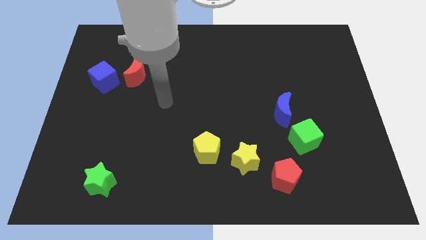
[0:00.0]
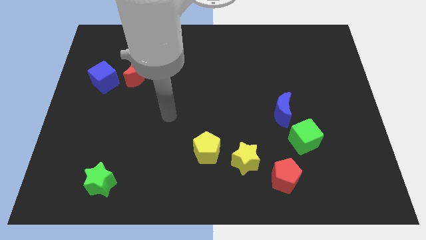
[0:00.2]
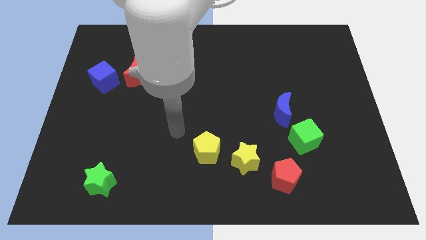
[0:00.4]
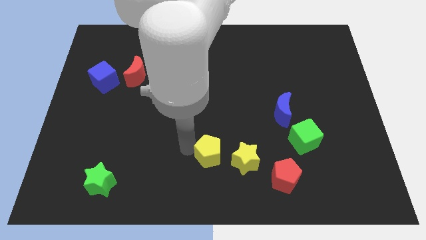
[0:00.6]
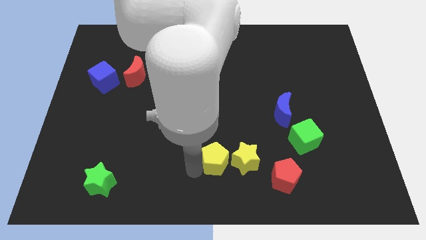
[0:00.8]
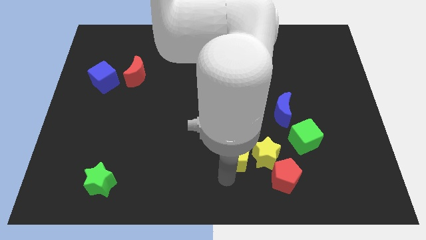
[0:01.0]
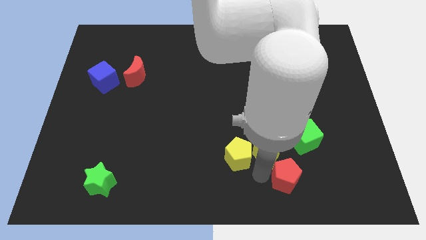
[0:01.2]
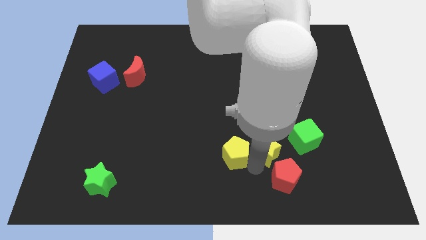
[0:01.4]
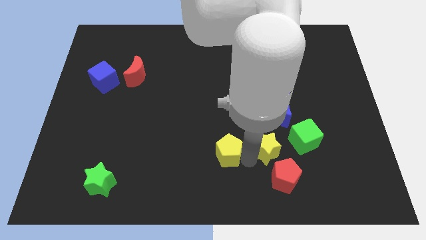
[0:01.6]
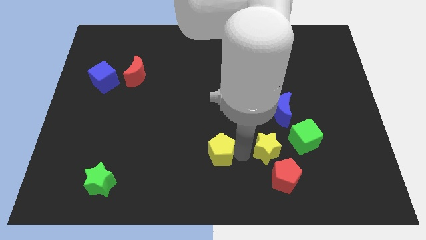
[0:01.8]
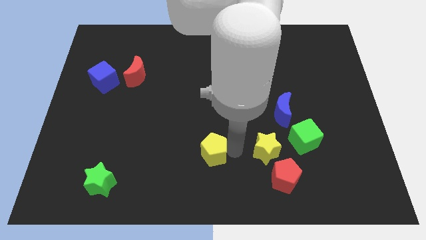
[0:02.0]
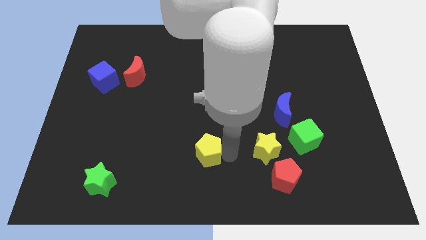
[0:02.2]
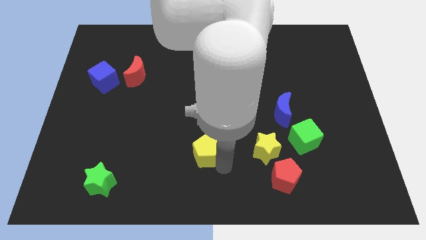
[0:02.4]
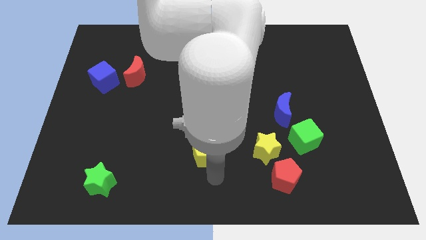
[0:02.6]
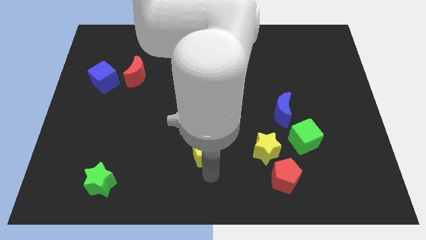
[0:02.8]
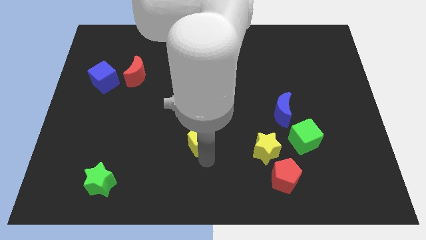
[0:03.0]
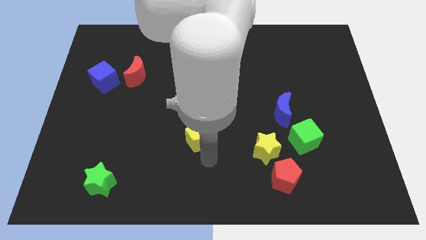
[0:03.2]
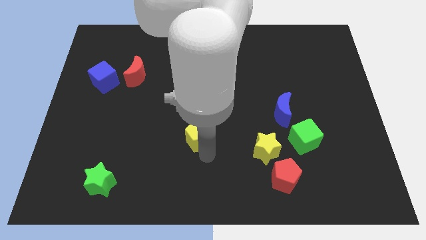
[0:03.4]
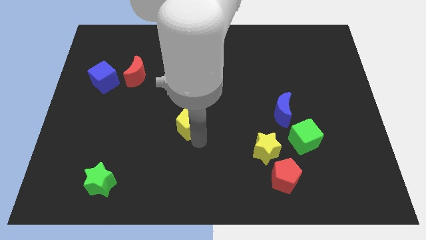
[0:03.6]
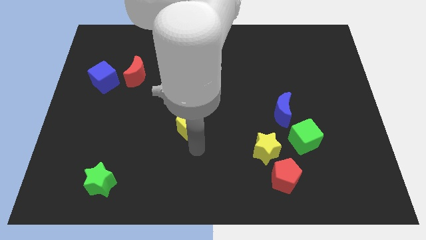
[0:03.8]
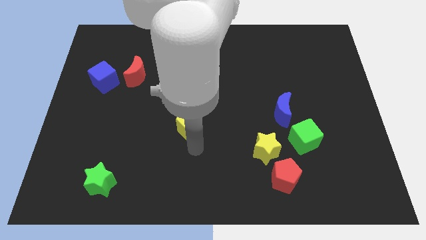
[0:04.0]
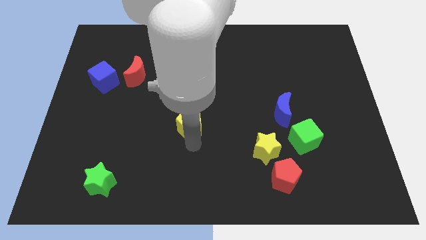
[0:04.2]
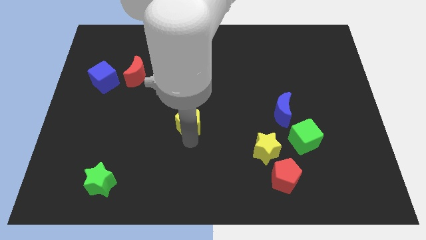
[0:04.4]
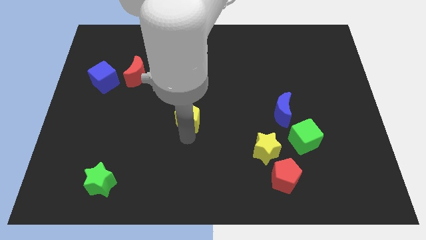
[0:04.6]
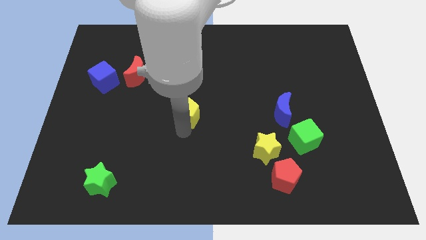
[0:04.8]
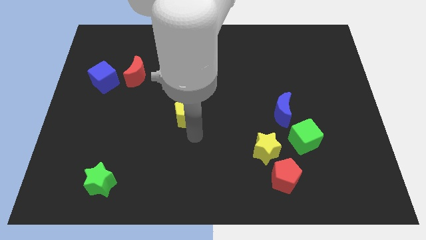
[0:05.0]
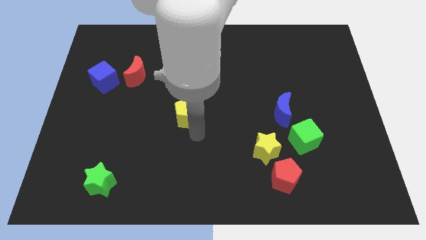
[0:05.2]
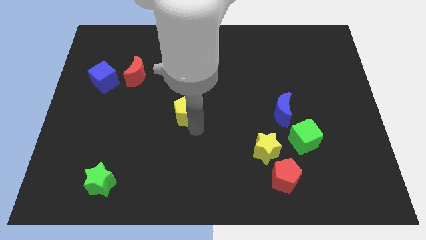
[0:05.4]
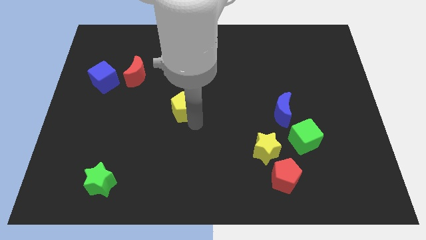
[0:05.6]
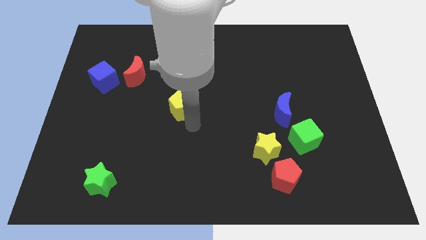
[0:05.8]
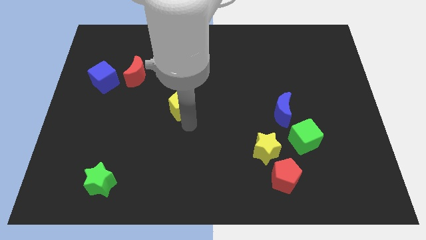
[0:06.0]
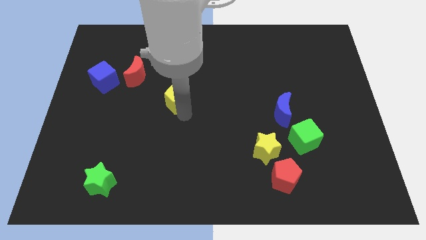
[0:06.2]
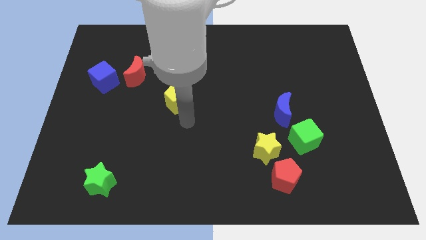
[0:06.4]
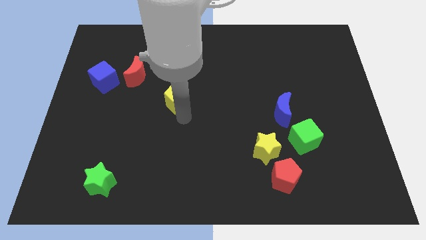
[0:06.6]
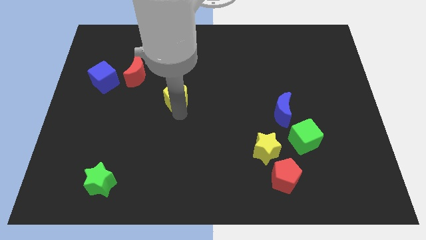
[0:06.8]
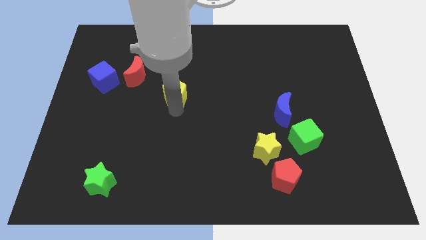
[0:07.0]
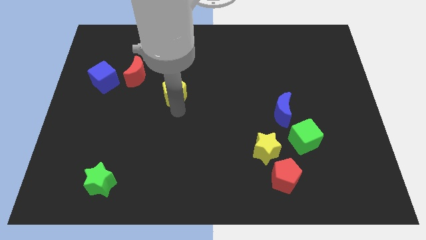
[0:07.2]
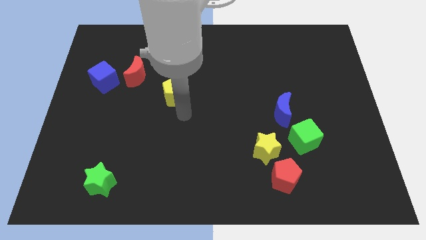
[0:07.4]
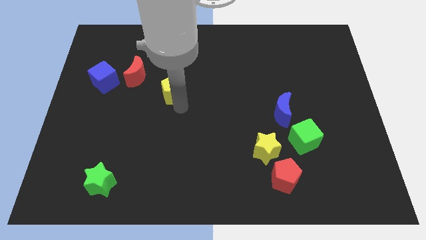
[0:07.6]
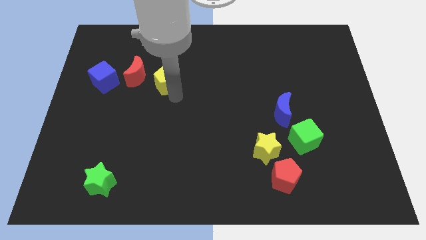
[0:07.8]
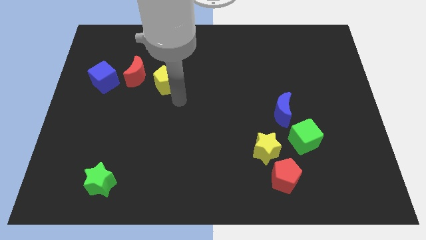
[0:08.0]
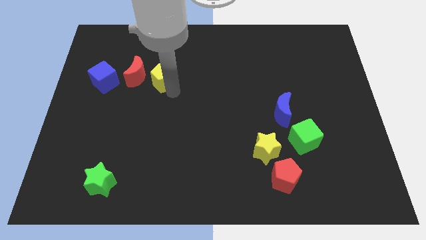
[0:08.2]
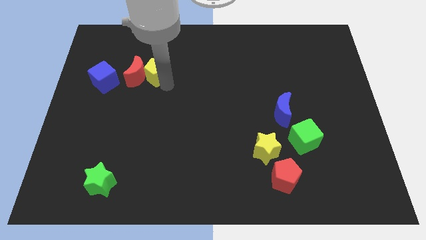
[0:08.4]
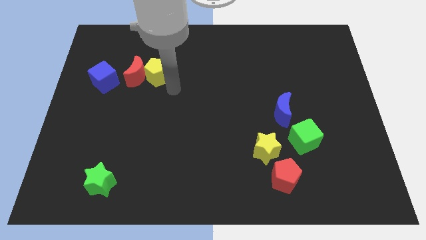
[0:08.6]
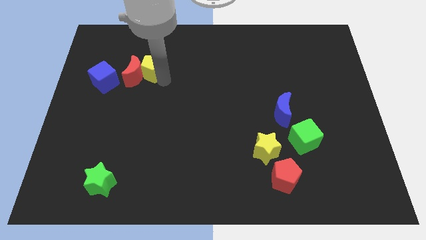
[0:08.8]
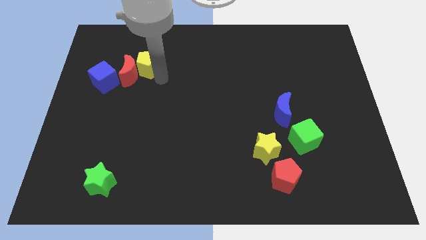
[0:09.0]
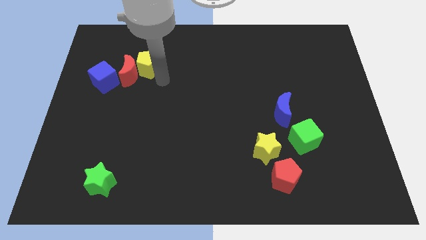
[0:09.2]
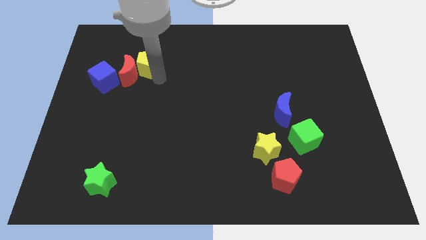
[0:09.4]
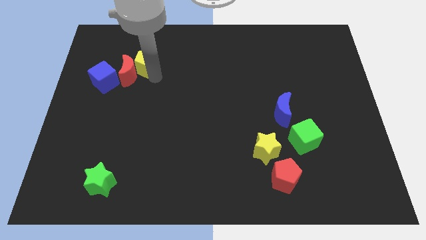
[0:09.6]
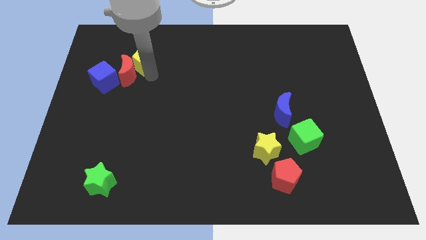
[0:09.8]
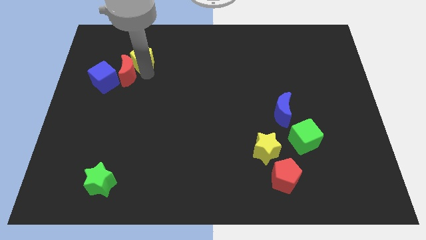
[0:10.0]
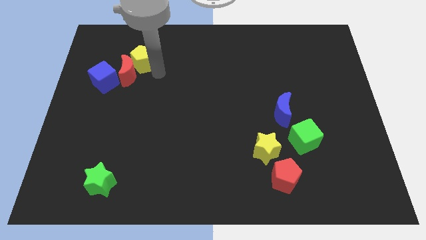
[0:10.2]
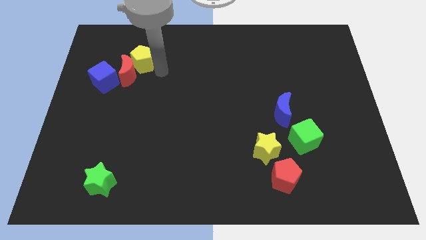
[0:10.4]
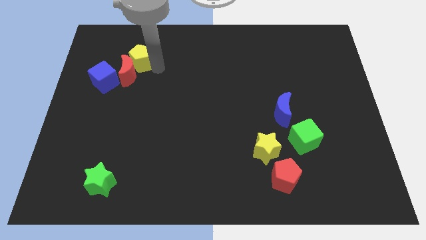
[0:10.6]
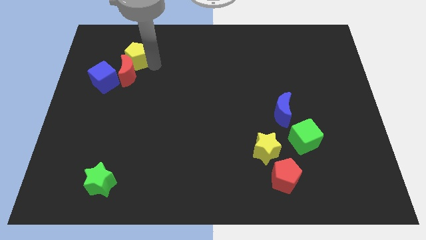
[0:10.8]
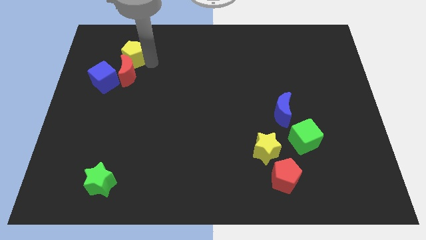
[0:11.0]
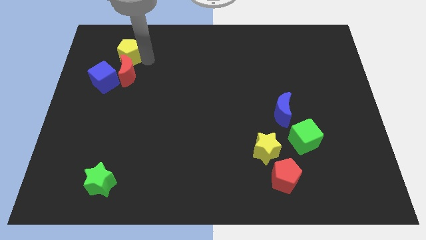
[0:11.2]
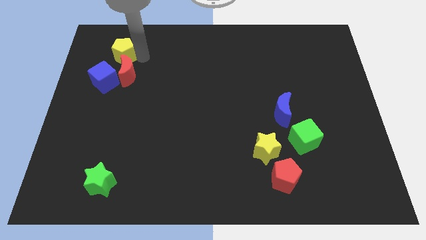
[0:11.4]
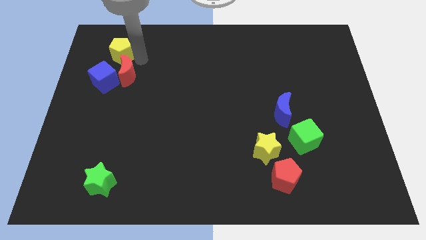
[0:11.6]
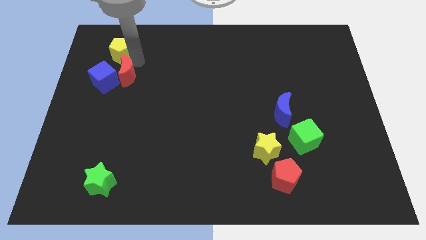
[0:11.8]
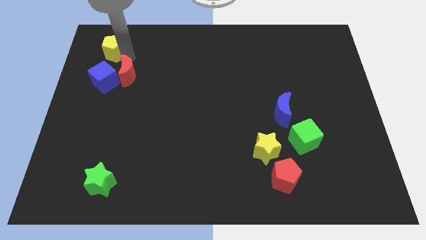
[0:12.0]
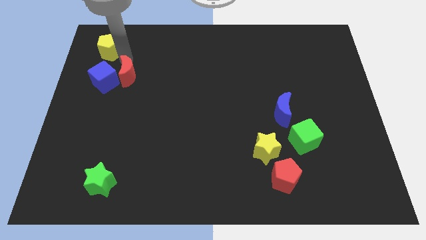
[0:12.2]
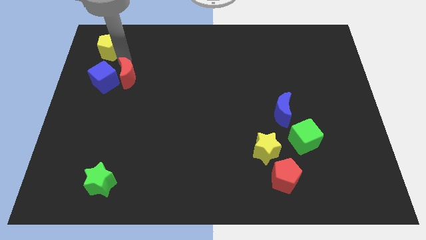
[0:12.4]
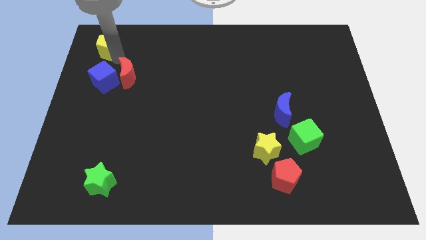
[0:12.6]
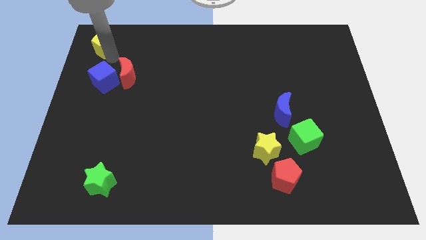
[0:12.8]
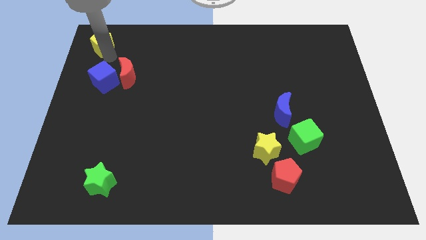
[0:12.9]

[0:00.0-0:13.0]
put the yellow pentagon to the top left
